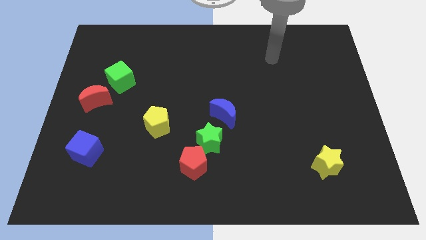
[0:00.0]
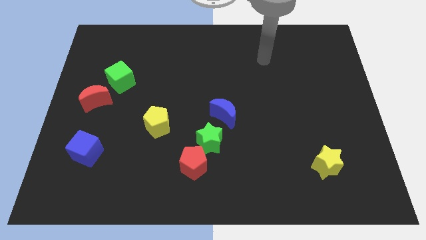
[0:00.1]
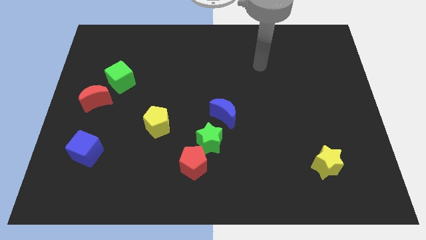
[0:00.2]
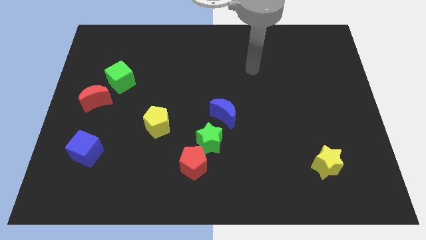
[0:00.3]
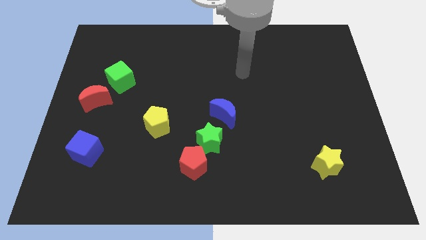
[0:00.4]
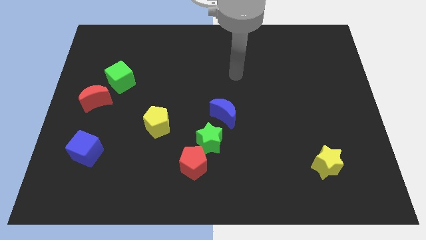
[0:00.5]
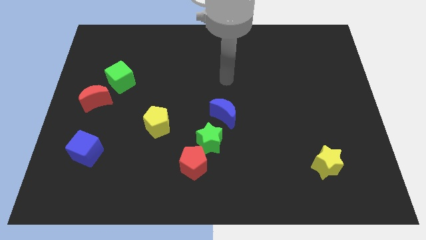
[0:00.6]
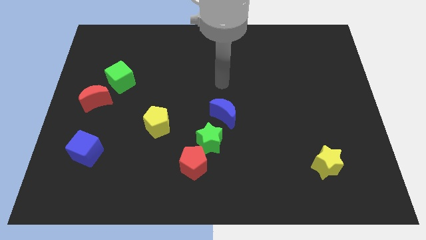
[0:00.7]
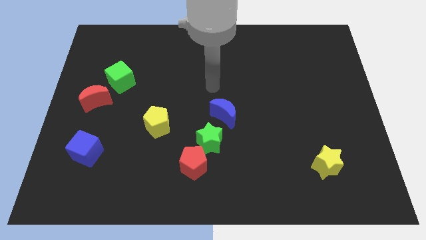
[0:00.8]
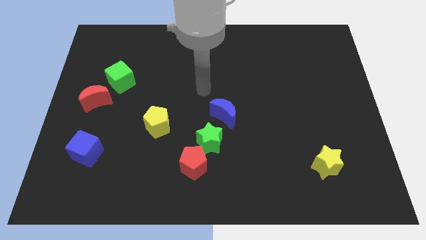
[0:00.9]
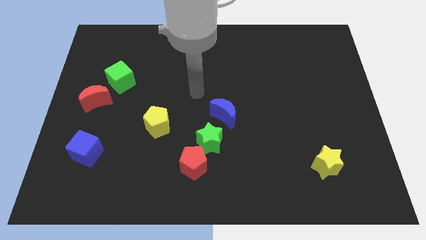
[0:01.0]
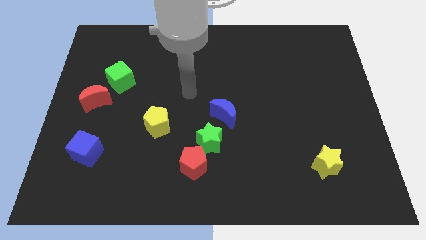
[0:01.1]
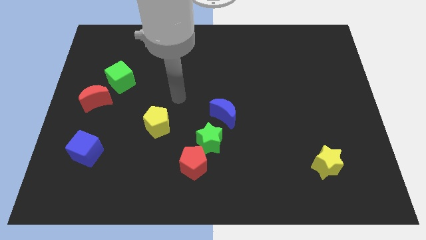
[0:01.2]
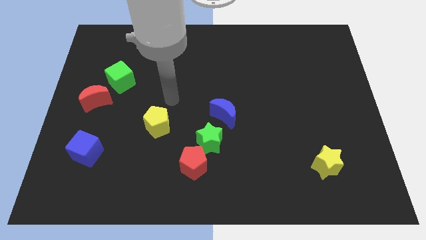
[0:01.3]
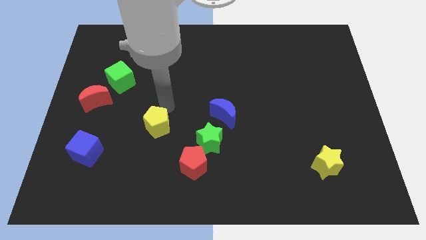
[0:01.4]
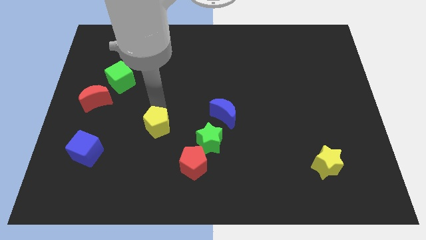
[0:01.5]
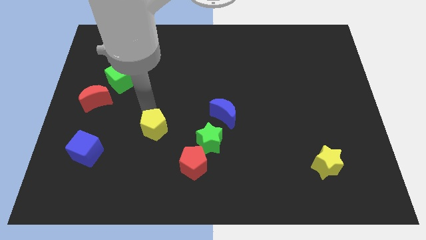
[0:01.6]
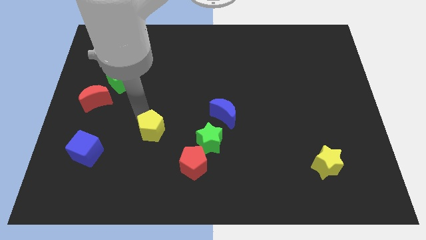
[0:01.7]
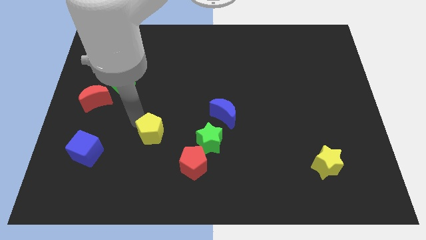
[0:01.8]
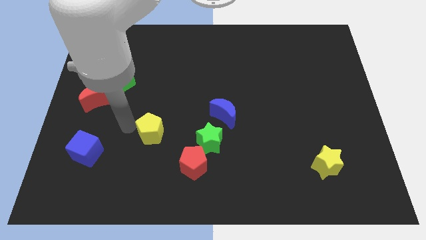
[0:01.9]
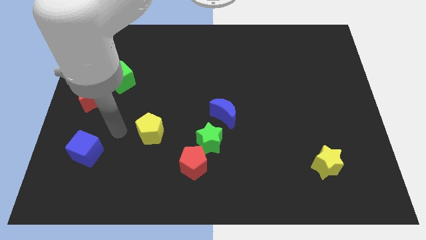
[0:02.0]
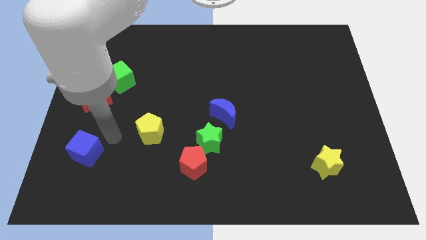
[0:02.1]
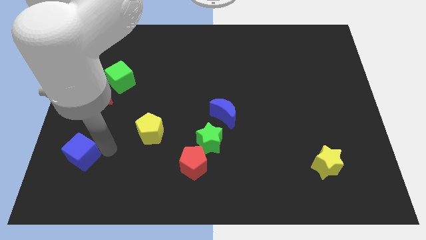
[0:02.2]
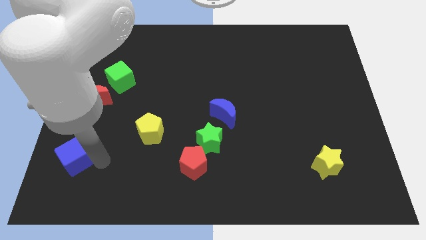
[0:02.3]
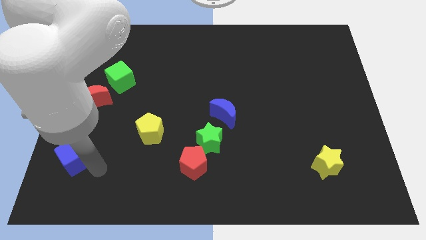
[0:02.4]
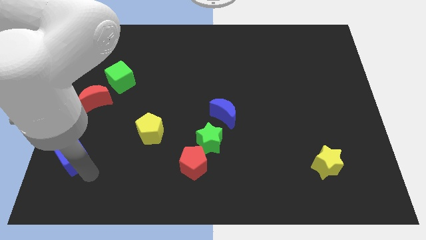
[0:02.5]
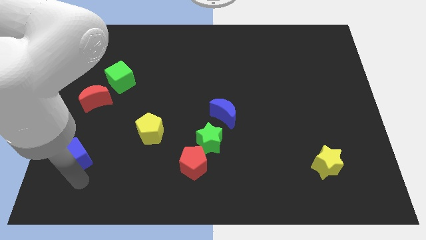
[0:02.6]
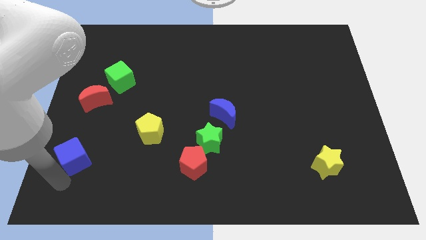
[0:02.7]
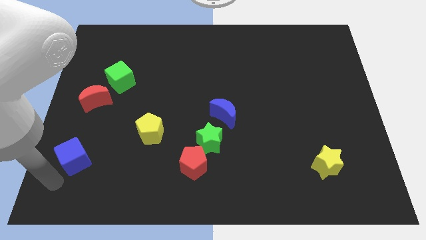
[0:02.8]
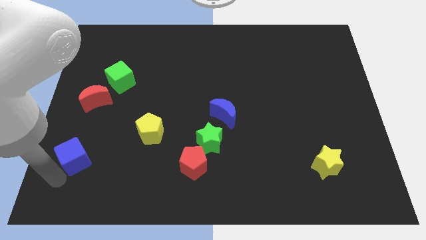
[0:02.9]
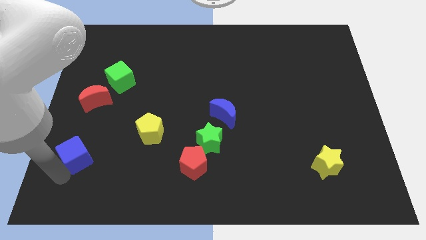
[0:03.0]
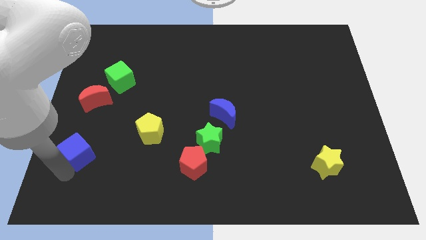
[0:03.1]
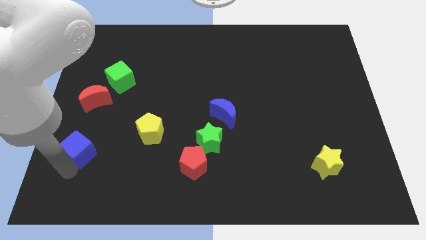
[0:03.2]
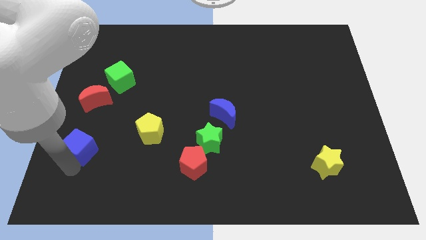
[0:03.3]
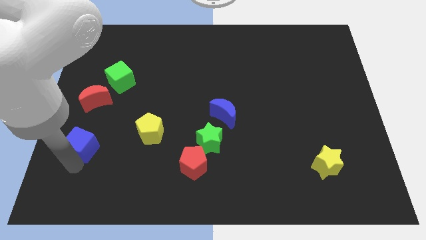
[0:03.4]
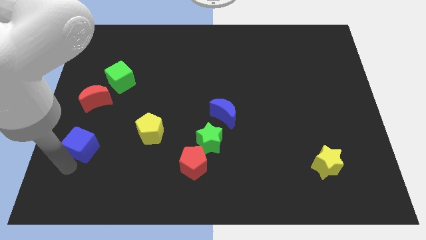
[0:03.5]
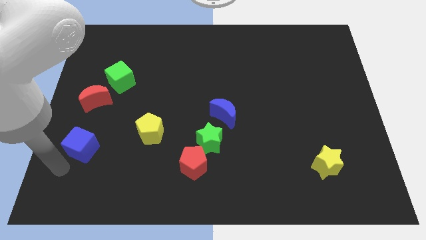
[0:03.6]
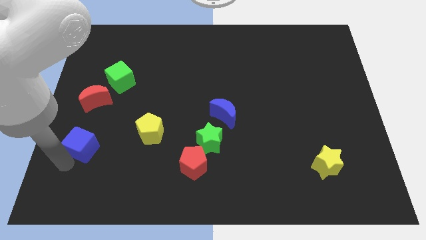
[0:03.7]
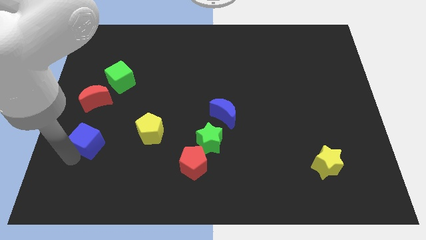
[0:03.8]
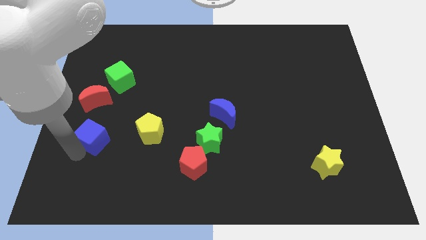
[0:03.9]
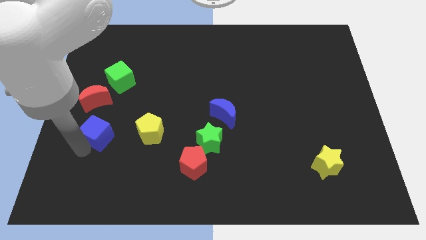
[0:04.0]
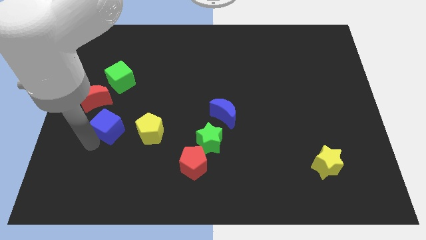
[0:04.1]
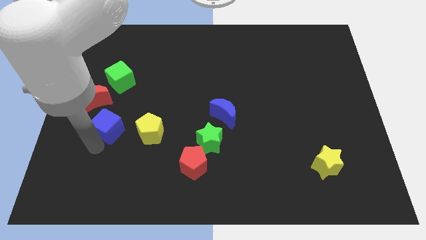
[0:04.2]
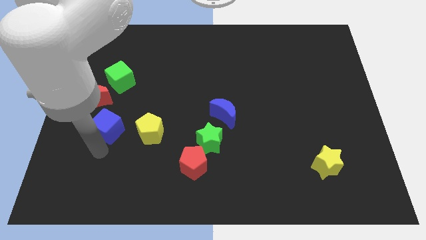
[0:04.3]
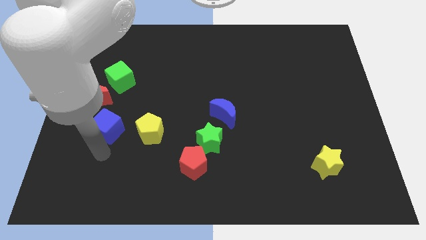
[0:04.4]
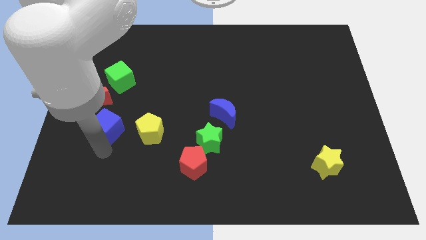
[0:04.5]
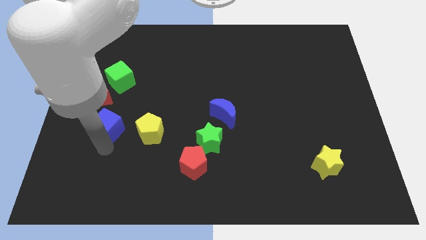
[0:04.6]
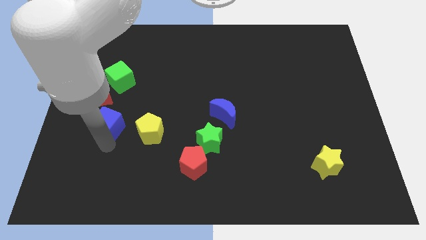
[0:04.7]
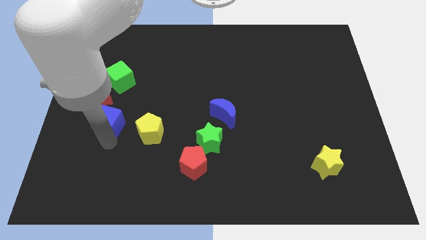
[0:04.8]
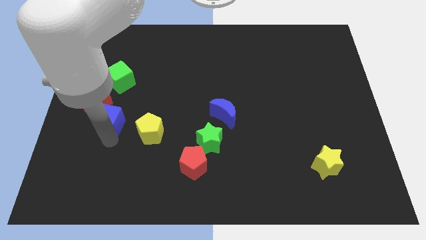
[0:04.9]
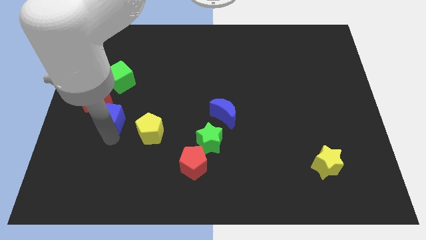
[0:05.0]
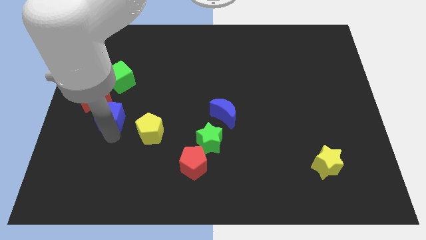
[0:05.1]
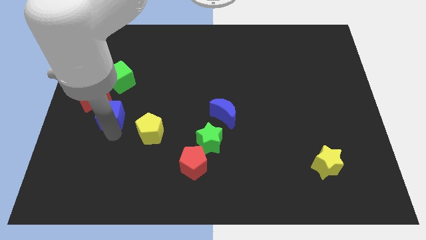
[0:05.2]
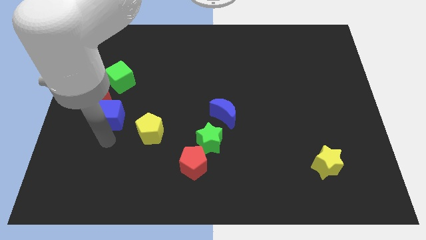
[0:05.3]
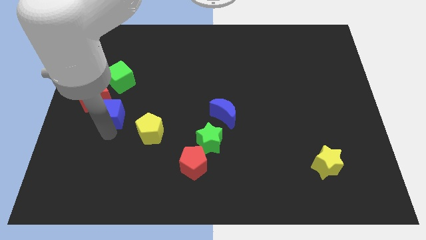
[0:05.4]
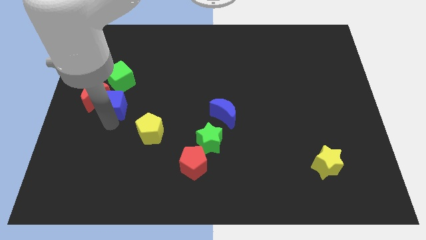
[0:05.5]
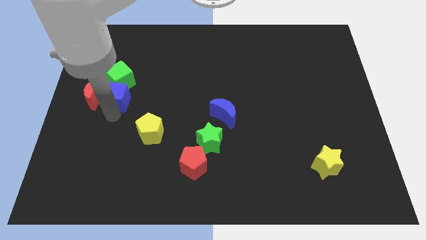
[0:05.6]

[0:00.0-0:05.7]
put the blue cube to the green cube

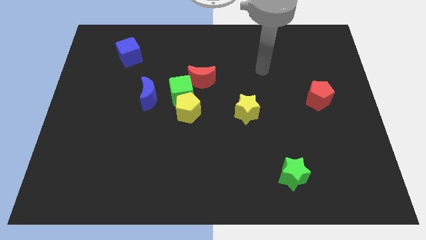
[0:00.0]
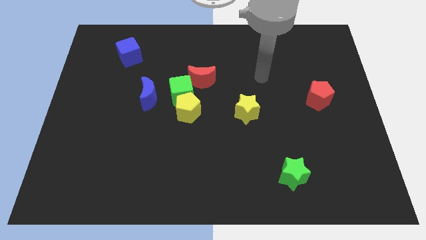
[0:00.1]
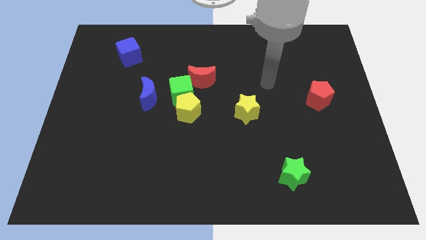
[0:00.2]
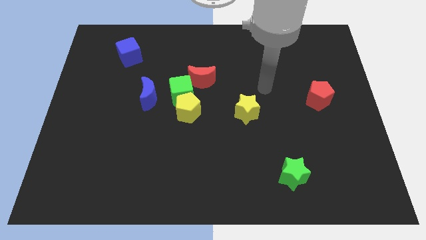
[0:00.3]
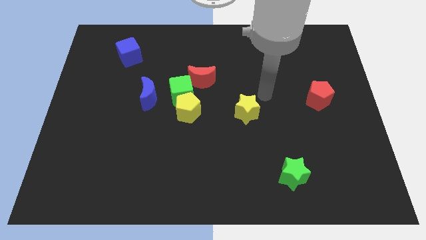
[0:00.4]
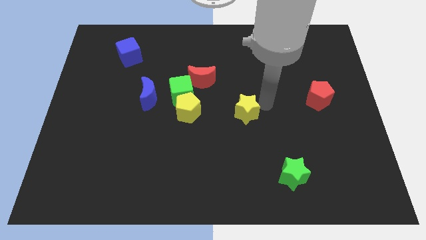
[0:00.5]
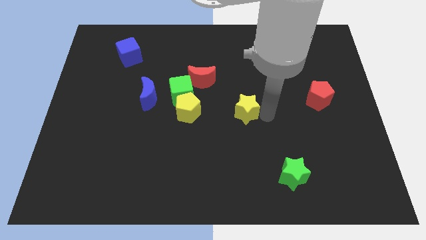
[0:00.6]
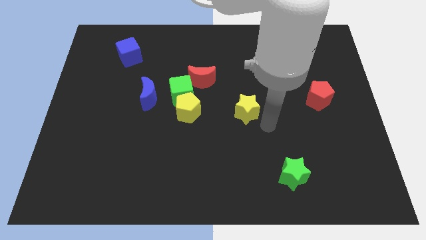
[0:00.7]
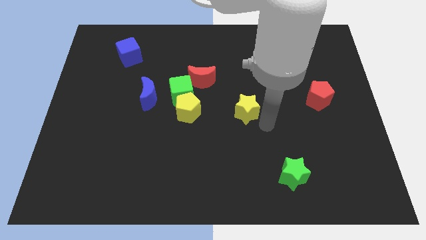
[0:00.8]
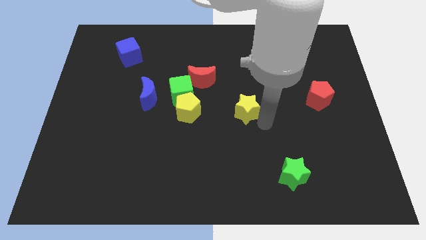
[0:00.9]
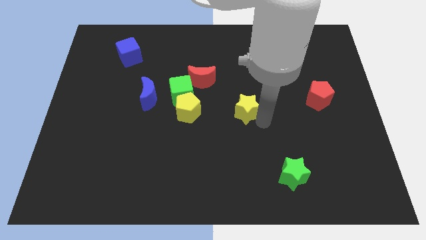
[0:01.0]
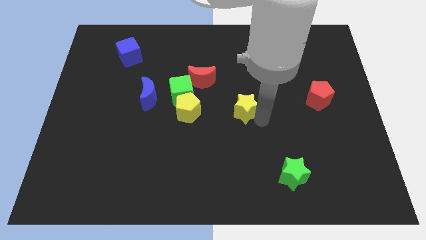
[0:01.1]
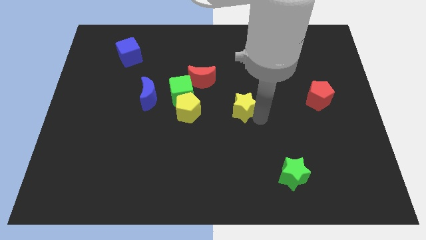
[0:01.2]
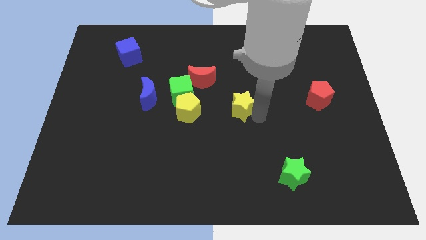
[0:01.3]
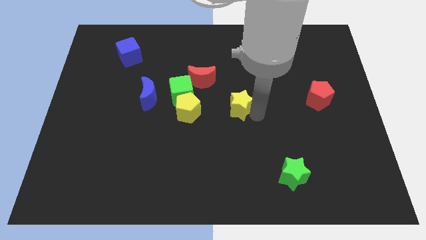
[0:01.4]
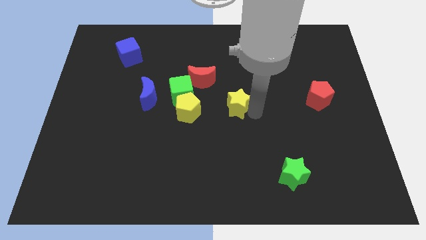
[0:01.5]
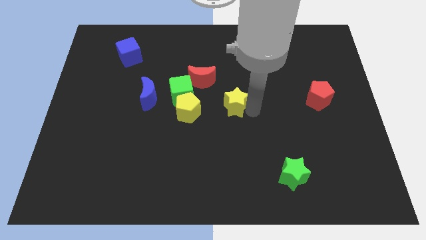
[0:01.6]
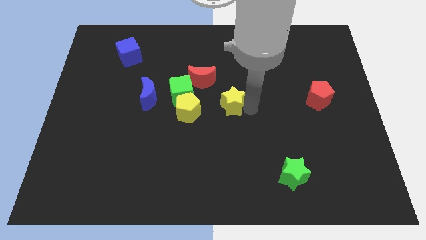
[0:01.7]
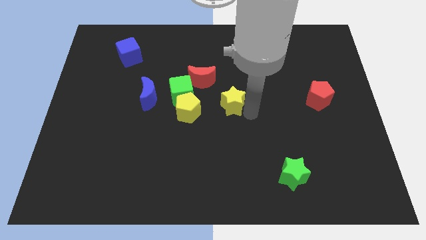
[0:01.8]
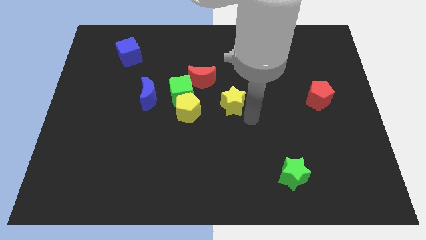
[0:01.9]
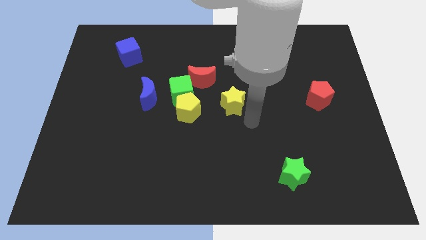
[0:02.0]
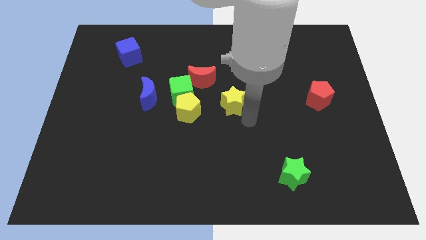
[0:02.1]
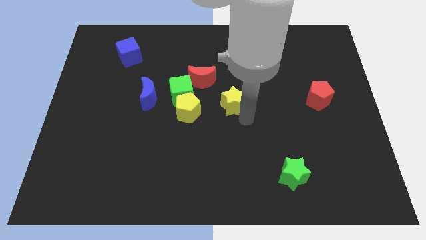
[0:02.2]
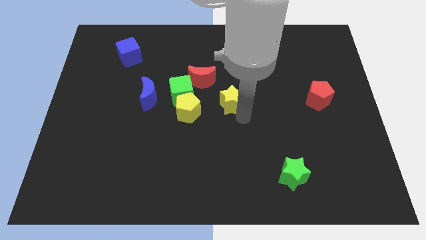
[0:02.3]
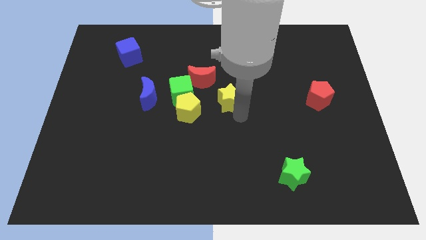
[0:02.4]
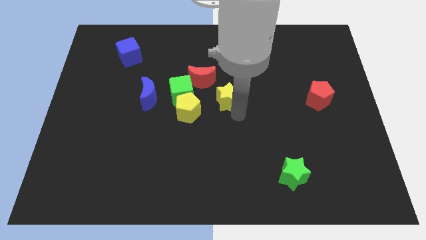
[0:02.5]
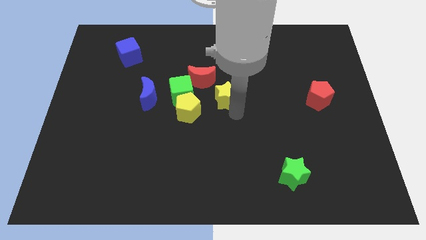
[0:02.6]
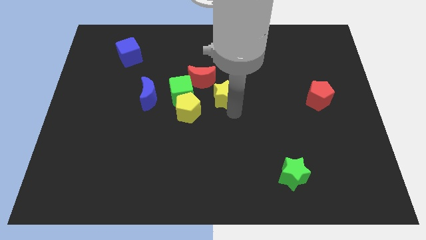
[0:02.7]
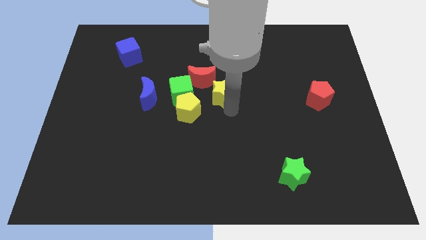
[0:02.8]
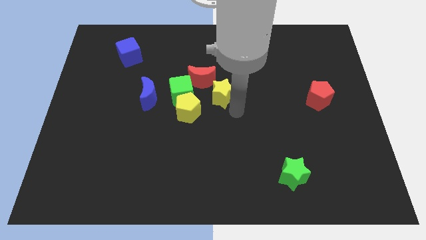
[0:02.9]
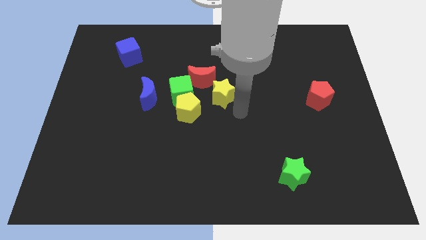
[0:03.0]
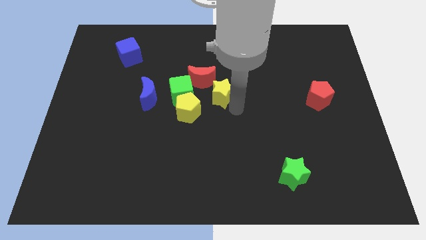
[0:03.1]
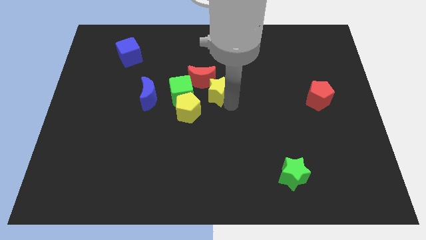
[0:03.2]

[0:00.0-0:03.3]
move the yellow star towards the red moon
